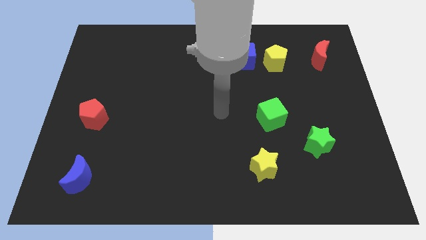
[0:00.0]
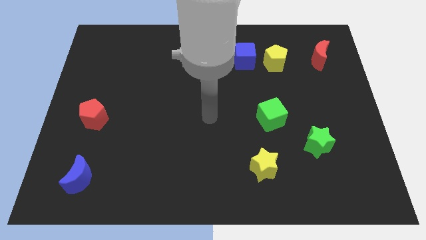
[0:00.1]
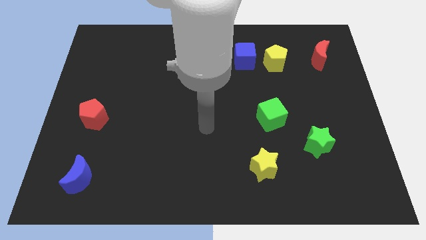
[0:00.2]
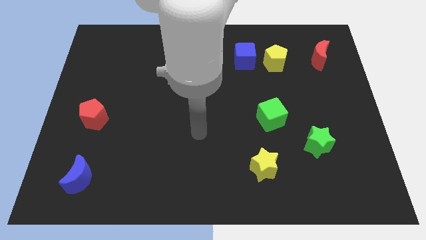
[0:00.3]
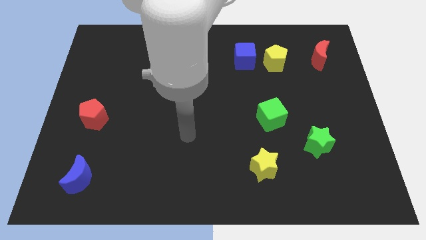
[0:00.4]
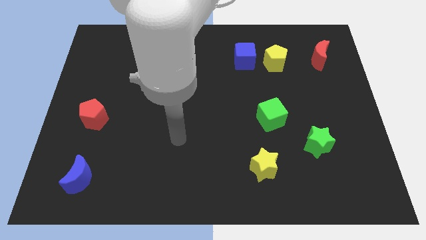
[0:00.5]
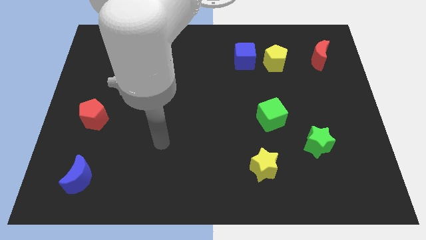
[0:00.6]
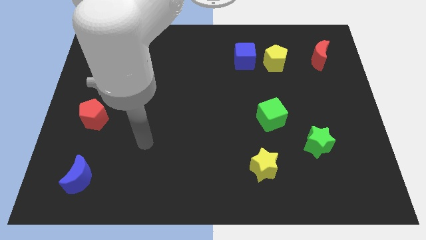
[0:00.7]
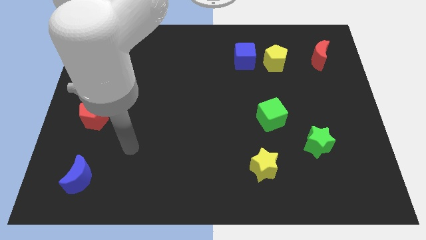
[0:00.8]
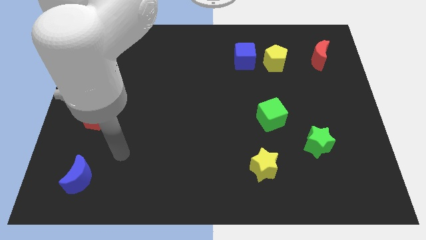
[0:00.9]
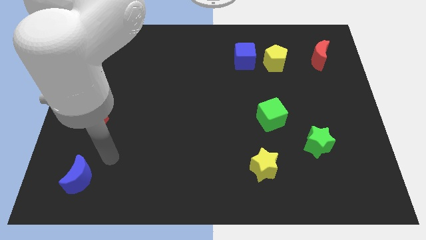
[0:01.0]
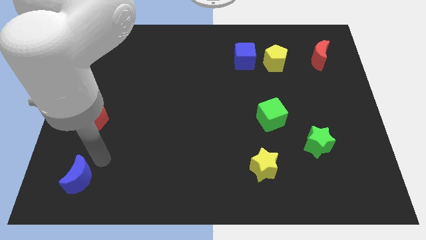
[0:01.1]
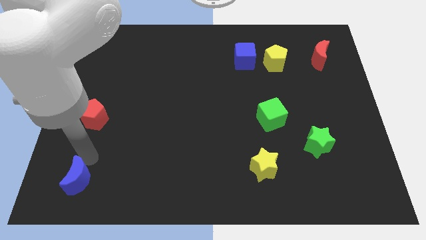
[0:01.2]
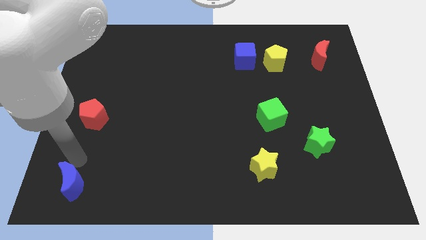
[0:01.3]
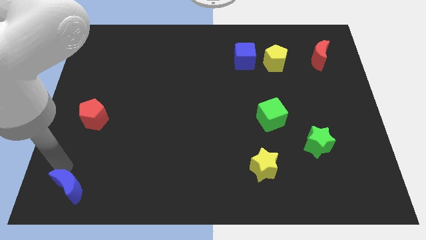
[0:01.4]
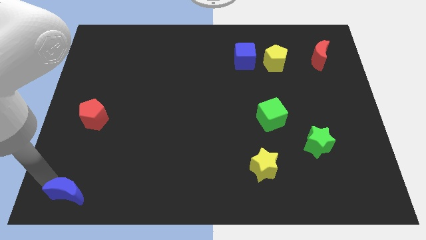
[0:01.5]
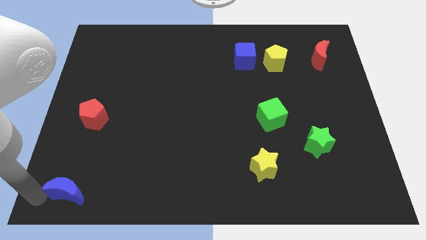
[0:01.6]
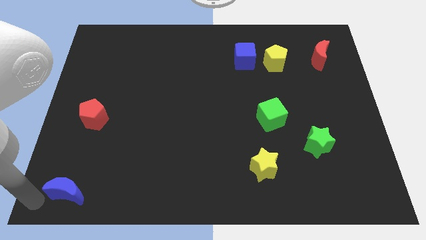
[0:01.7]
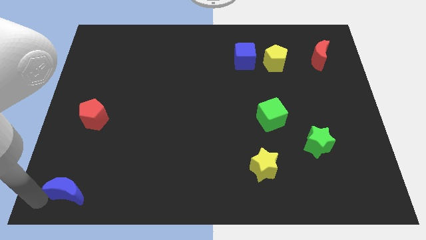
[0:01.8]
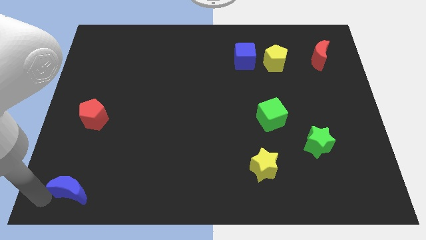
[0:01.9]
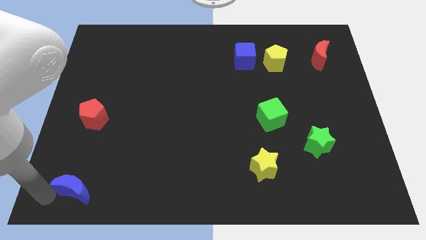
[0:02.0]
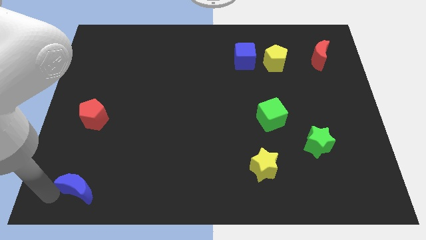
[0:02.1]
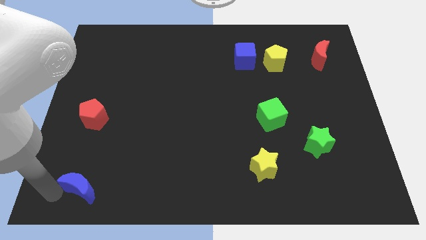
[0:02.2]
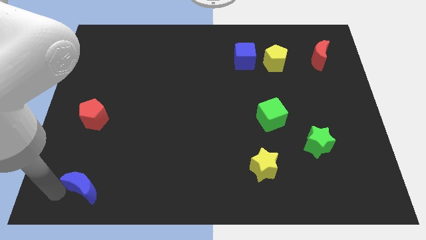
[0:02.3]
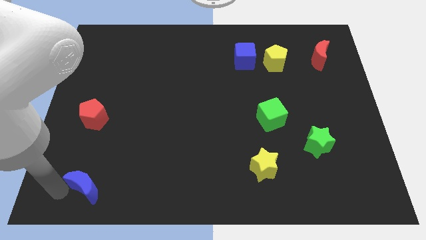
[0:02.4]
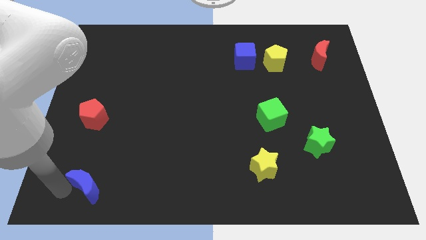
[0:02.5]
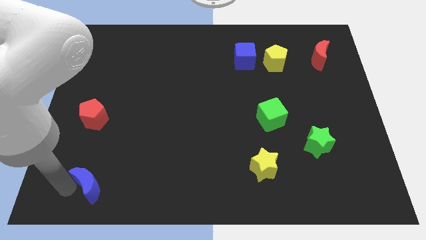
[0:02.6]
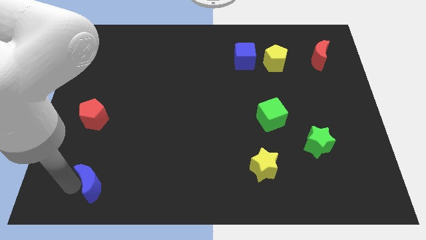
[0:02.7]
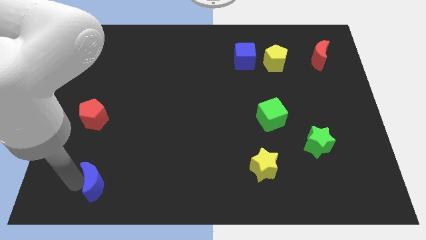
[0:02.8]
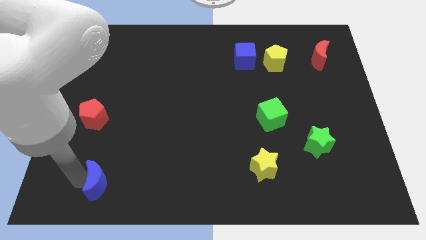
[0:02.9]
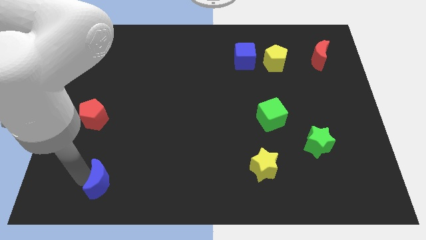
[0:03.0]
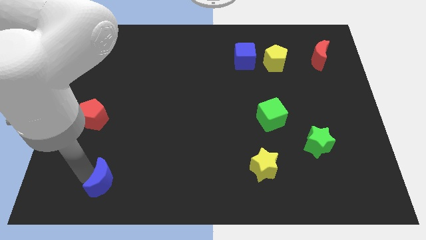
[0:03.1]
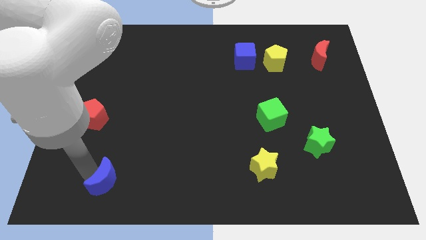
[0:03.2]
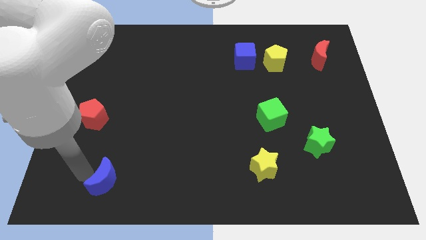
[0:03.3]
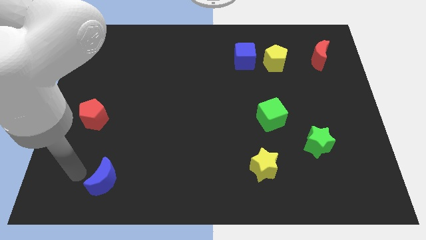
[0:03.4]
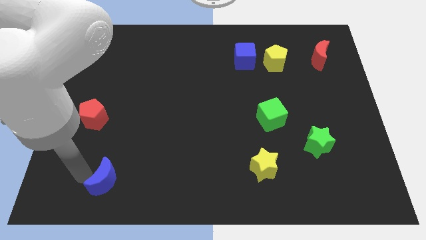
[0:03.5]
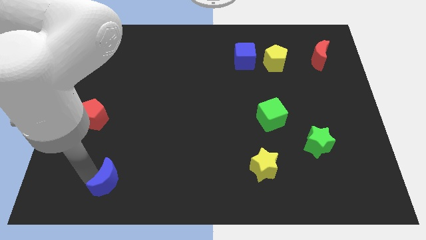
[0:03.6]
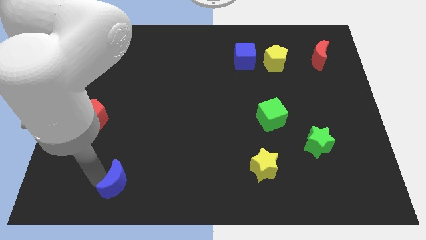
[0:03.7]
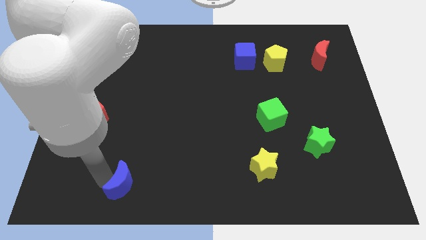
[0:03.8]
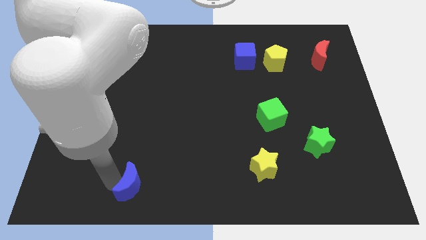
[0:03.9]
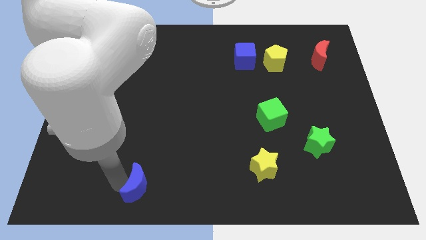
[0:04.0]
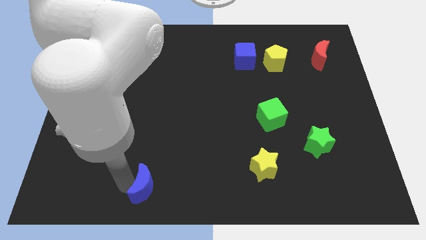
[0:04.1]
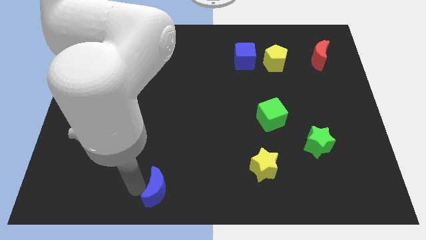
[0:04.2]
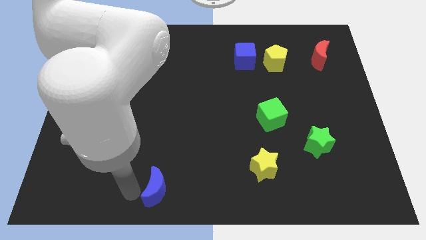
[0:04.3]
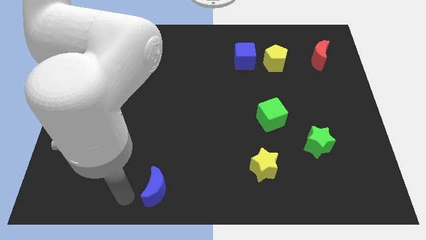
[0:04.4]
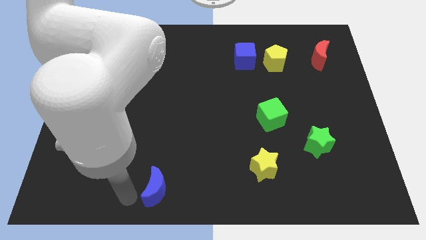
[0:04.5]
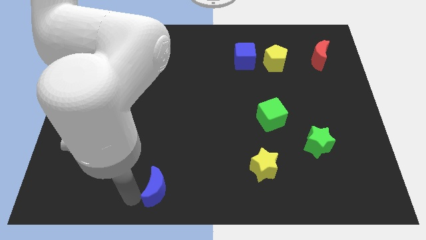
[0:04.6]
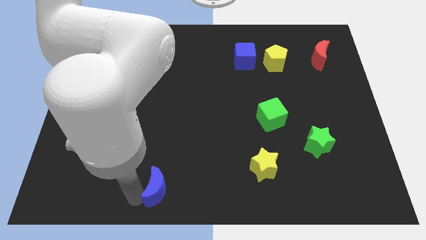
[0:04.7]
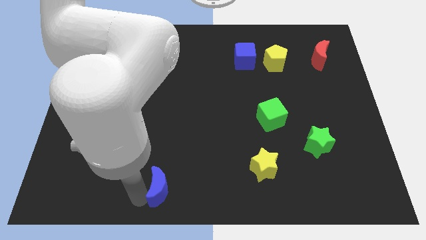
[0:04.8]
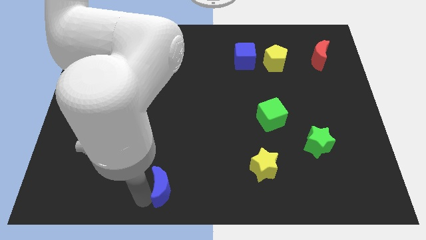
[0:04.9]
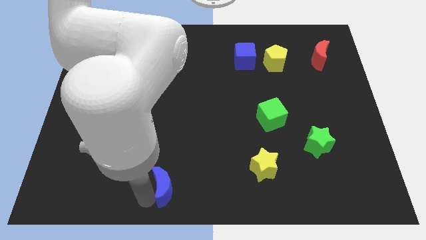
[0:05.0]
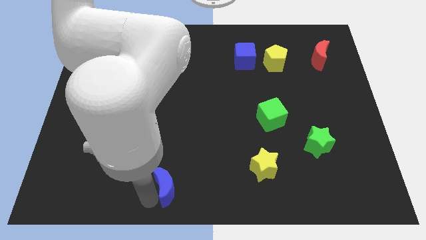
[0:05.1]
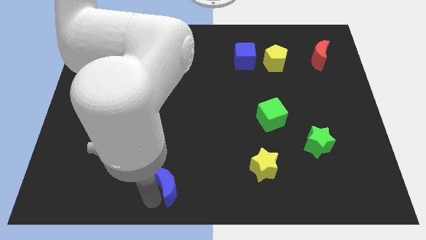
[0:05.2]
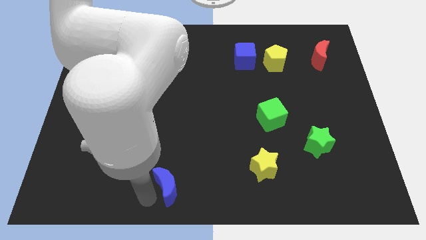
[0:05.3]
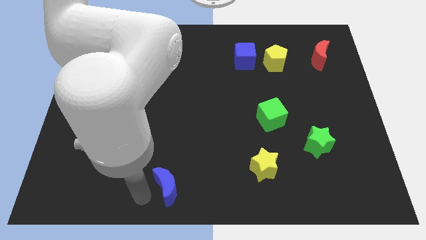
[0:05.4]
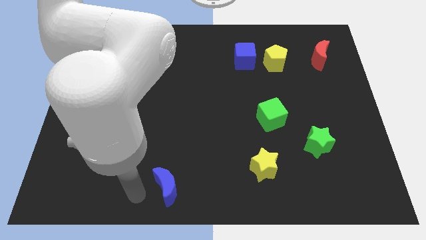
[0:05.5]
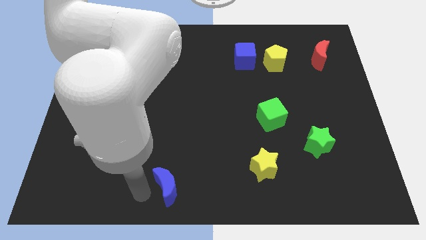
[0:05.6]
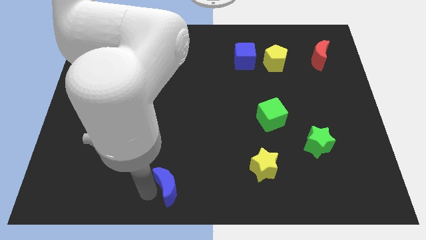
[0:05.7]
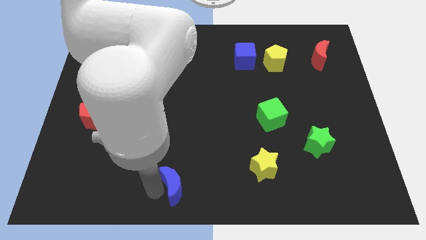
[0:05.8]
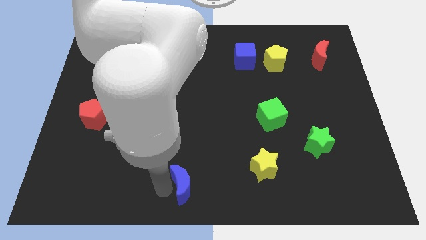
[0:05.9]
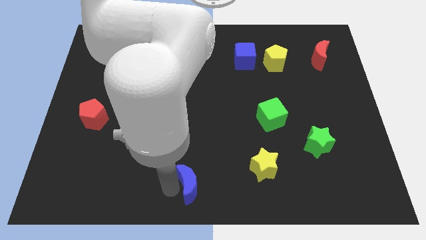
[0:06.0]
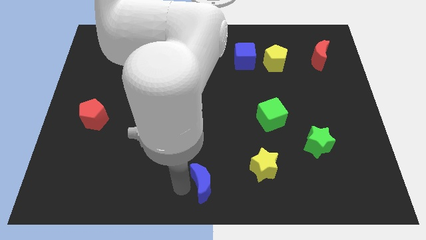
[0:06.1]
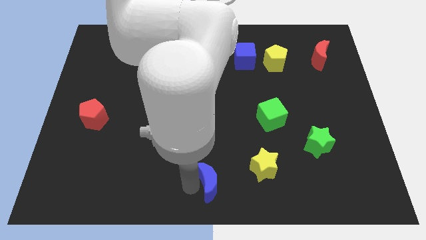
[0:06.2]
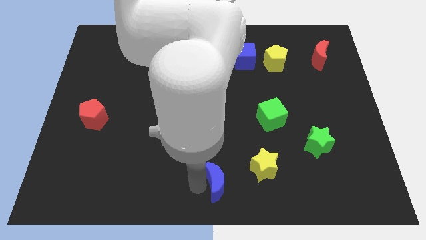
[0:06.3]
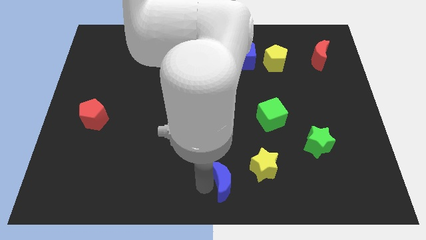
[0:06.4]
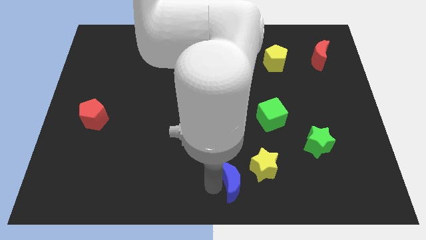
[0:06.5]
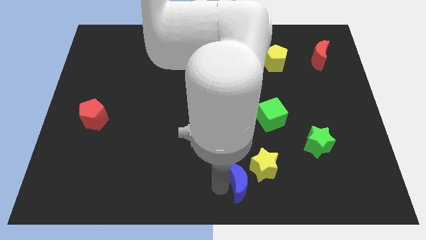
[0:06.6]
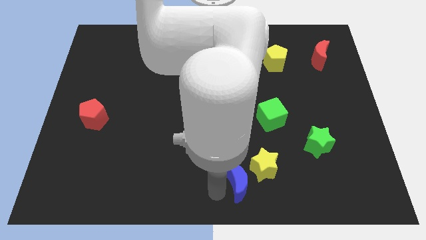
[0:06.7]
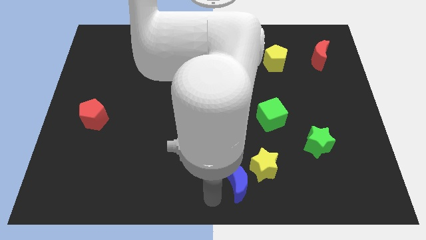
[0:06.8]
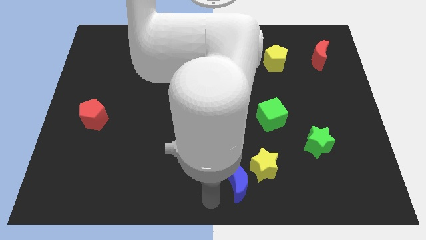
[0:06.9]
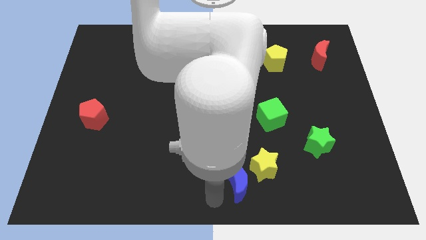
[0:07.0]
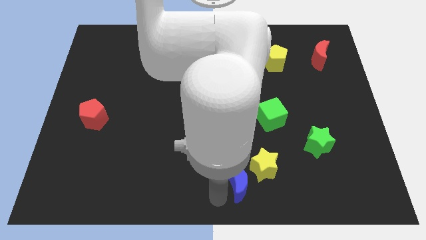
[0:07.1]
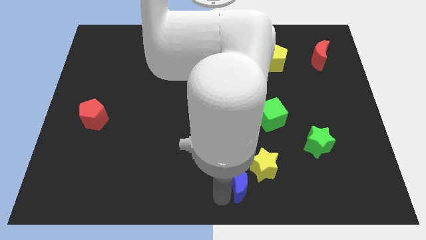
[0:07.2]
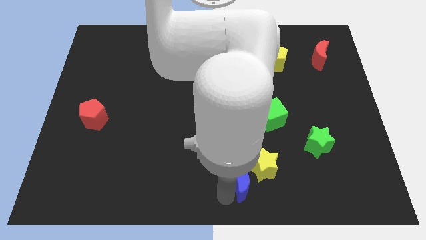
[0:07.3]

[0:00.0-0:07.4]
slide the blue moon towards the yellow star

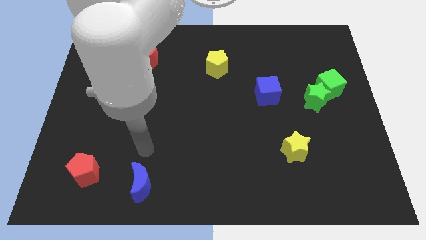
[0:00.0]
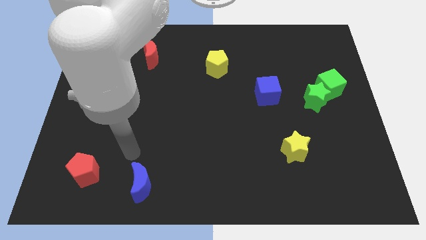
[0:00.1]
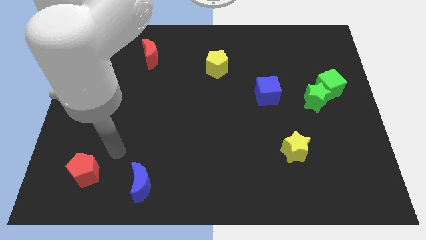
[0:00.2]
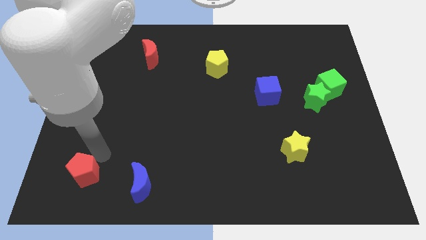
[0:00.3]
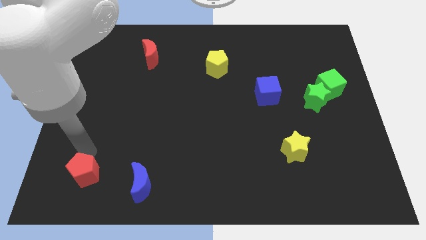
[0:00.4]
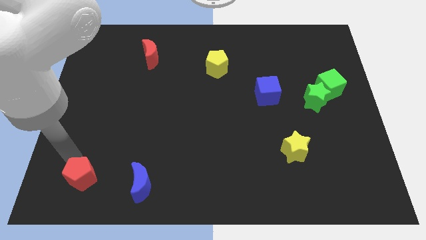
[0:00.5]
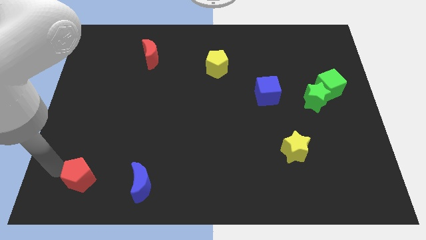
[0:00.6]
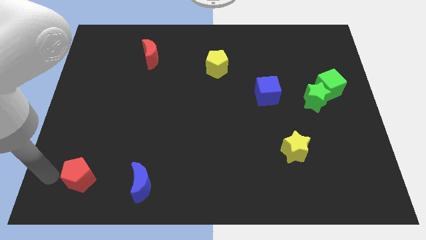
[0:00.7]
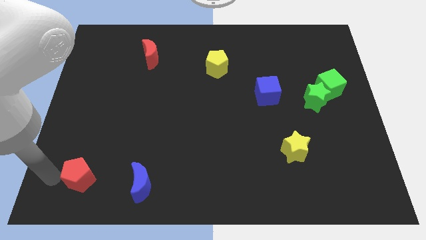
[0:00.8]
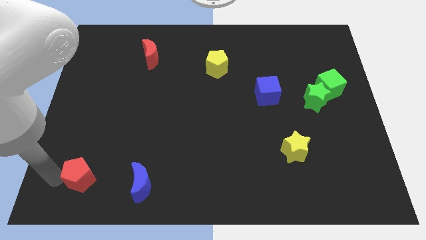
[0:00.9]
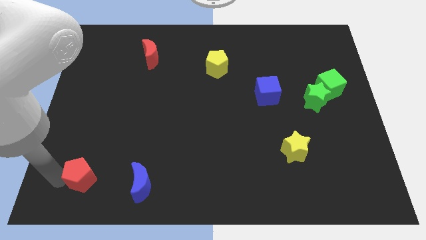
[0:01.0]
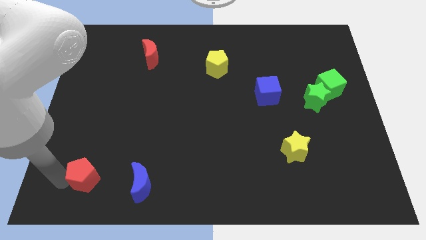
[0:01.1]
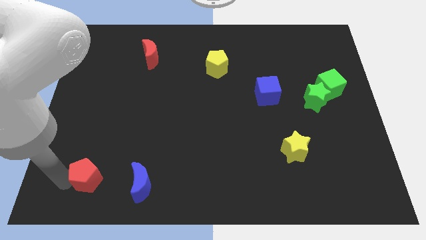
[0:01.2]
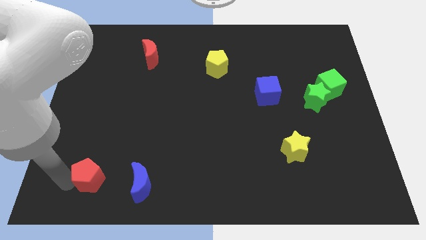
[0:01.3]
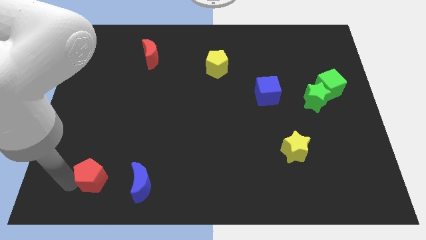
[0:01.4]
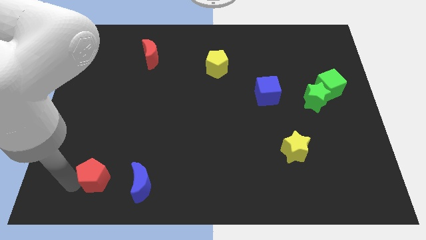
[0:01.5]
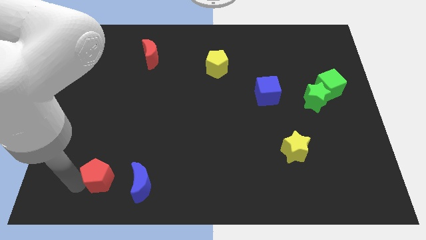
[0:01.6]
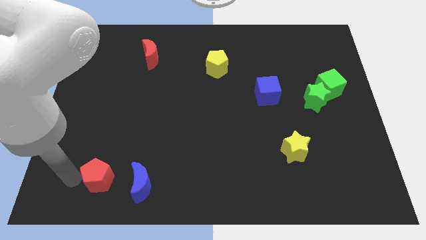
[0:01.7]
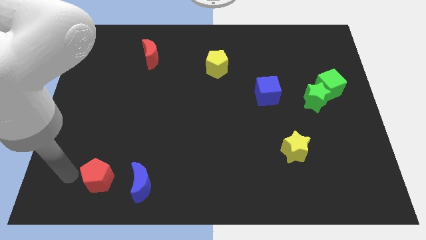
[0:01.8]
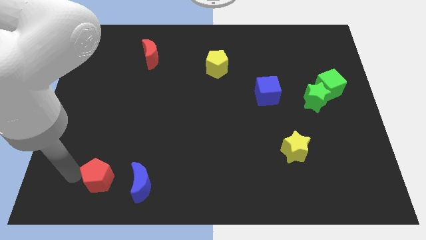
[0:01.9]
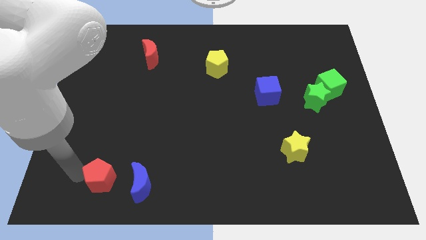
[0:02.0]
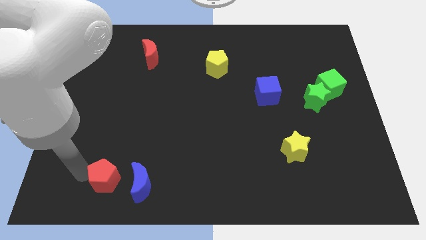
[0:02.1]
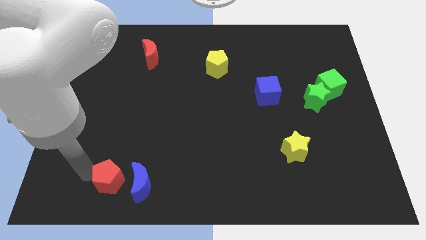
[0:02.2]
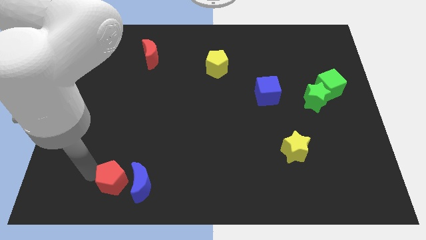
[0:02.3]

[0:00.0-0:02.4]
put the red pentagon towards the blue moon
